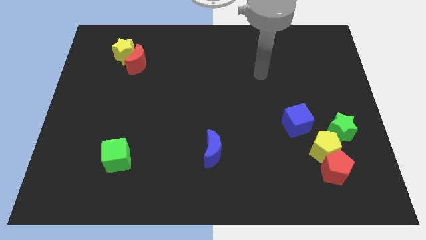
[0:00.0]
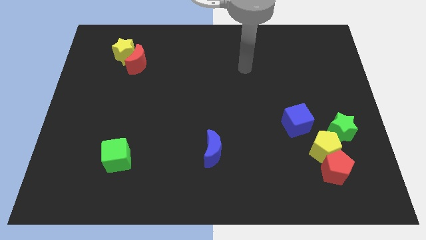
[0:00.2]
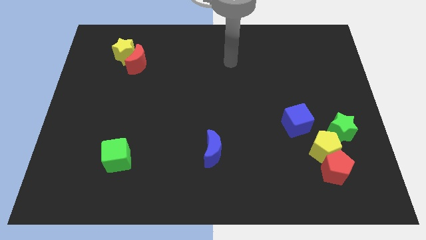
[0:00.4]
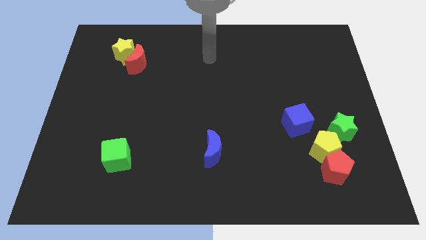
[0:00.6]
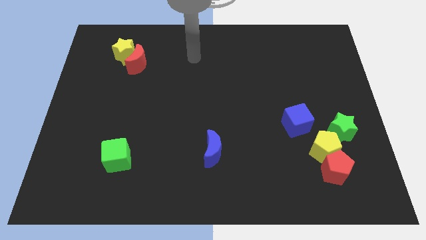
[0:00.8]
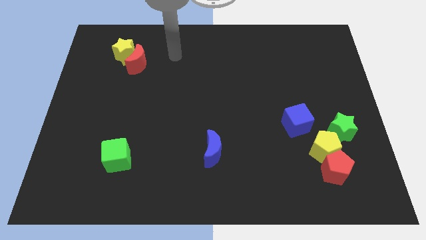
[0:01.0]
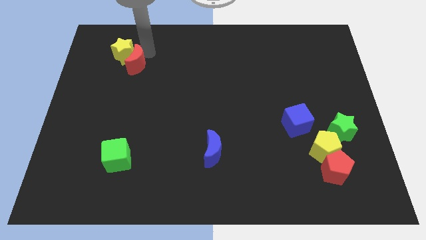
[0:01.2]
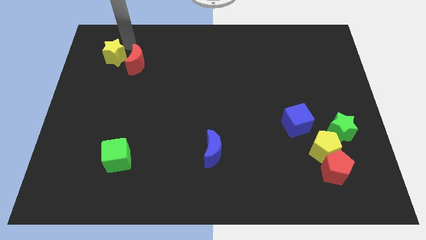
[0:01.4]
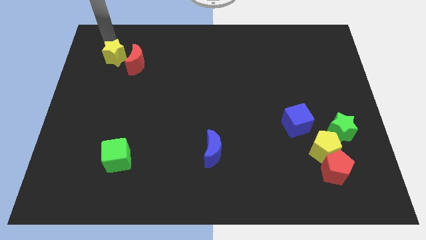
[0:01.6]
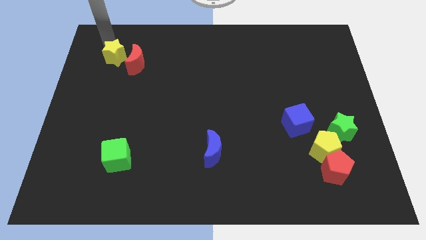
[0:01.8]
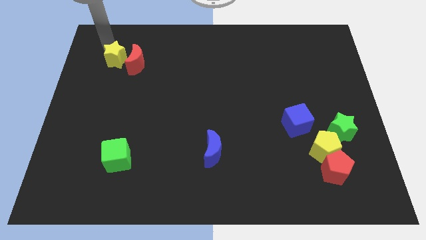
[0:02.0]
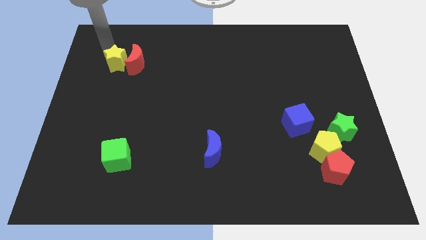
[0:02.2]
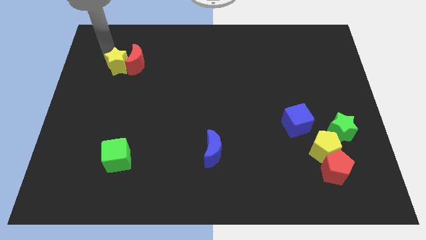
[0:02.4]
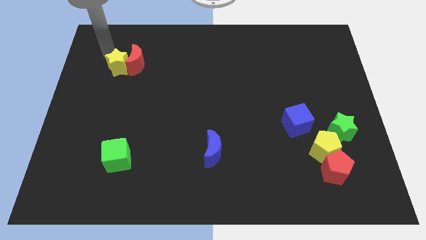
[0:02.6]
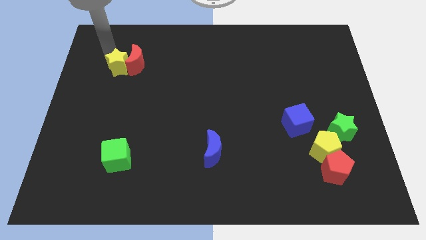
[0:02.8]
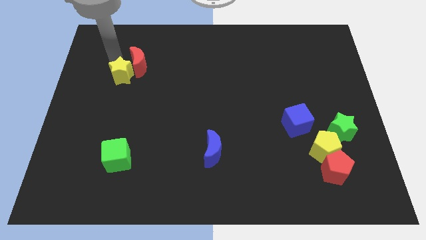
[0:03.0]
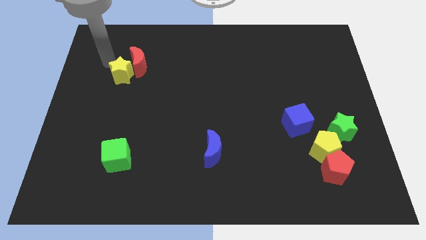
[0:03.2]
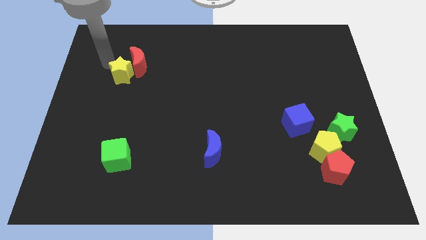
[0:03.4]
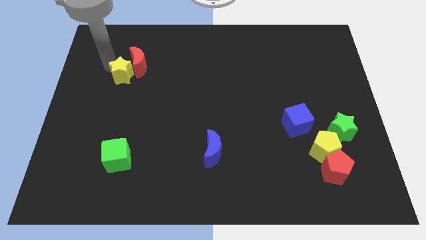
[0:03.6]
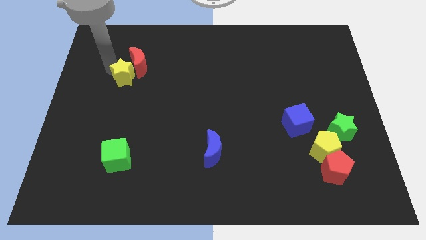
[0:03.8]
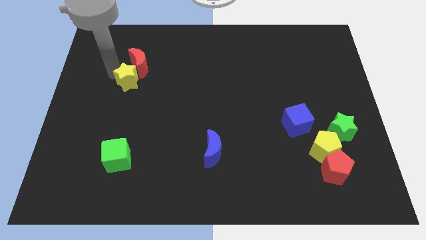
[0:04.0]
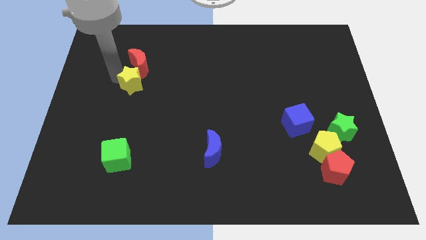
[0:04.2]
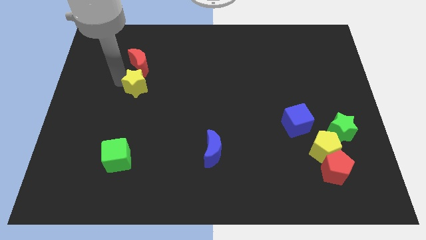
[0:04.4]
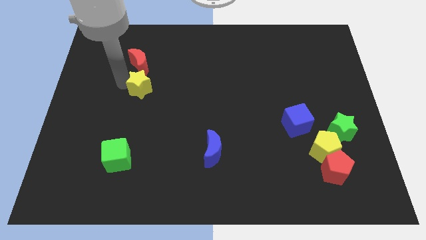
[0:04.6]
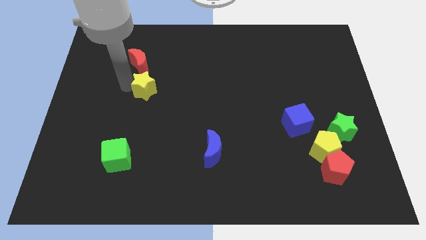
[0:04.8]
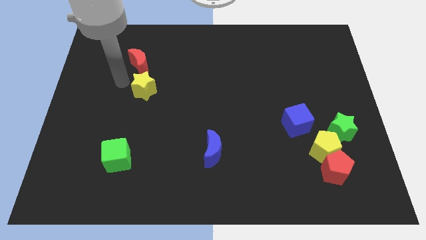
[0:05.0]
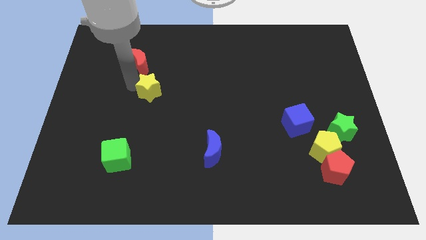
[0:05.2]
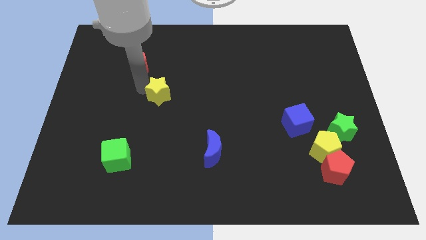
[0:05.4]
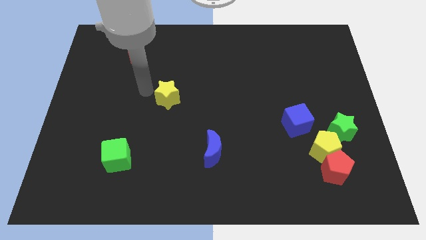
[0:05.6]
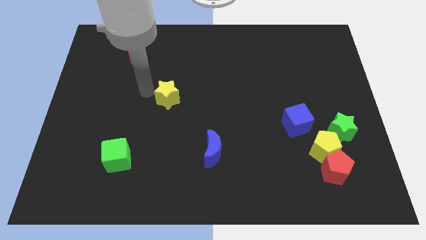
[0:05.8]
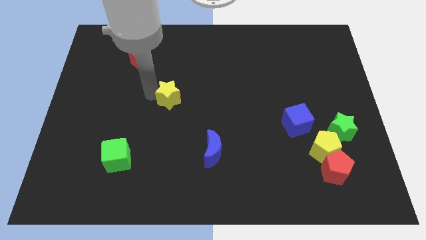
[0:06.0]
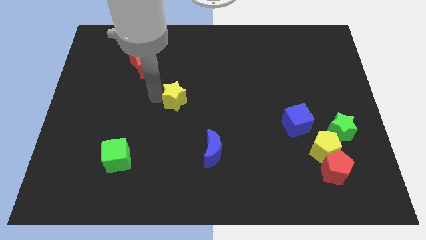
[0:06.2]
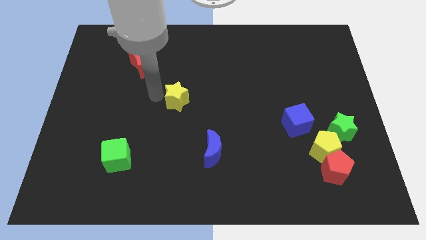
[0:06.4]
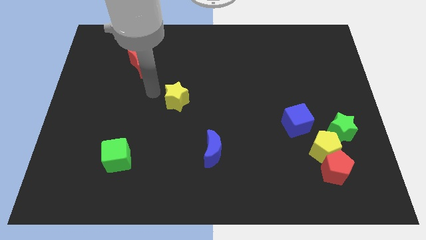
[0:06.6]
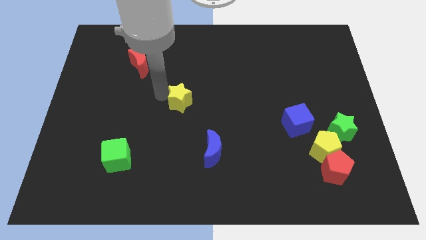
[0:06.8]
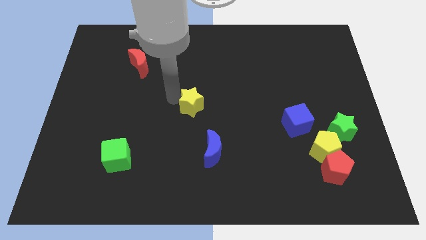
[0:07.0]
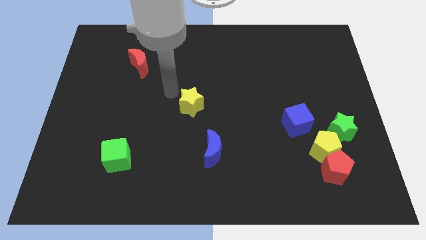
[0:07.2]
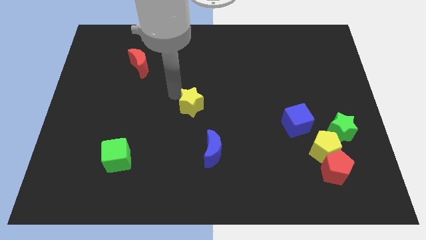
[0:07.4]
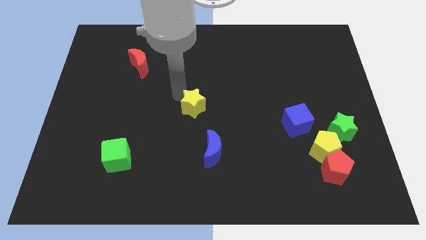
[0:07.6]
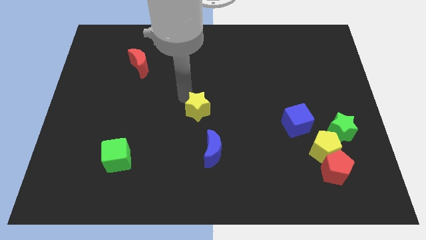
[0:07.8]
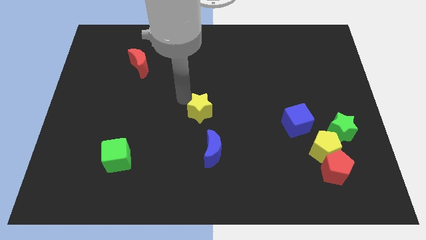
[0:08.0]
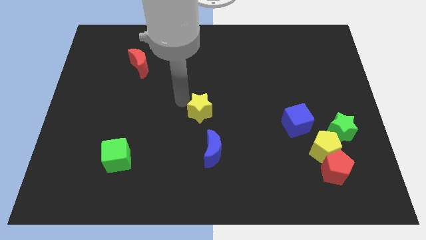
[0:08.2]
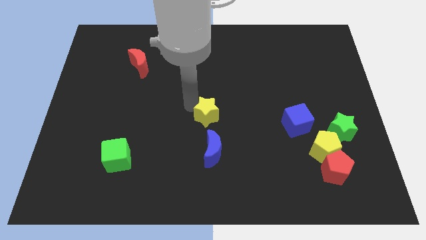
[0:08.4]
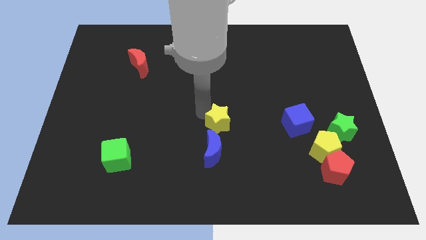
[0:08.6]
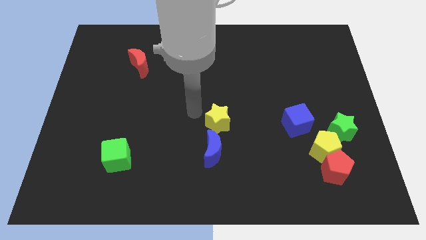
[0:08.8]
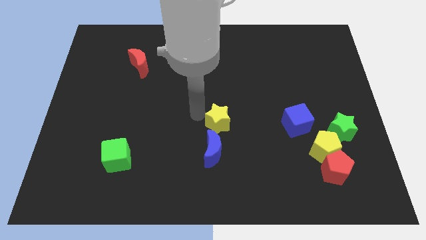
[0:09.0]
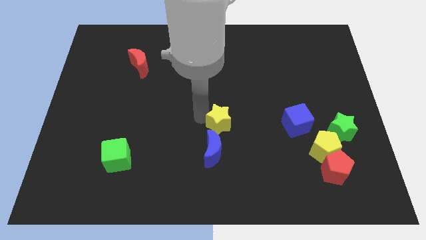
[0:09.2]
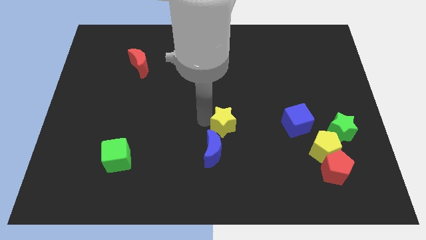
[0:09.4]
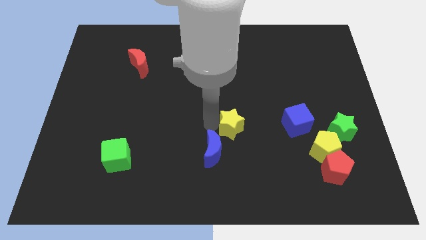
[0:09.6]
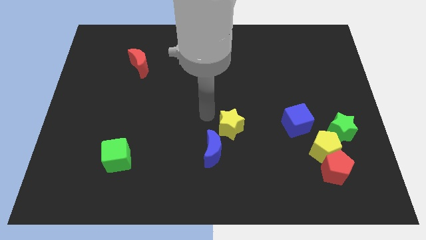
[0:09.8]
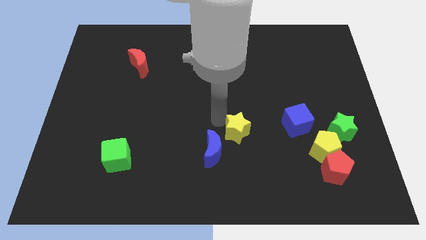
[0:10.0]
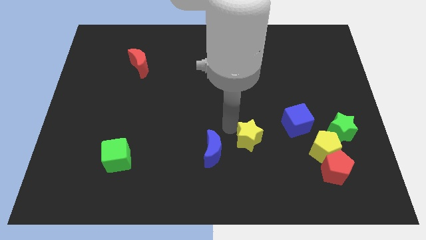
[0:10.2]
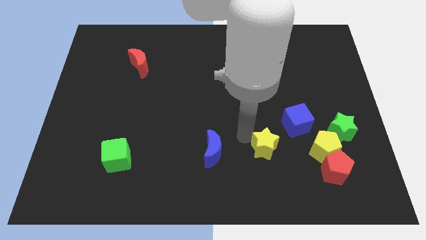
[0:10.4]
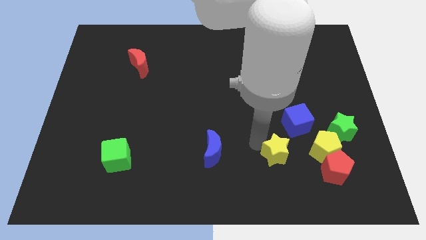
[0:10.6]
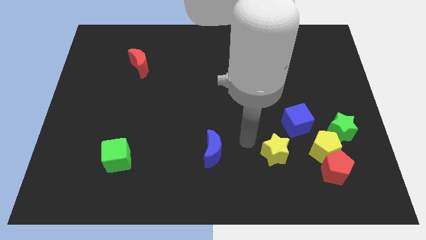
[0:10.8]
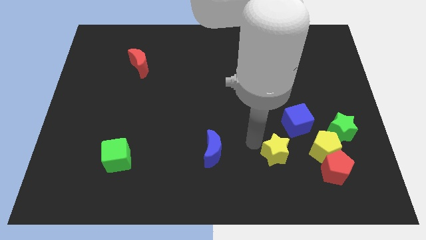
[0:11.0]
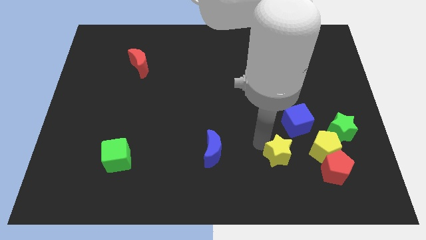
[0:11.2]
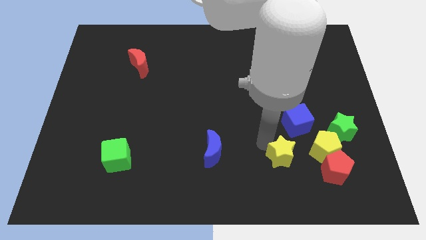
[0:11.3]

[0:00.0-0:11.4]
slide the yellow star below the blue cube

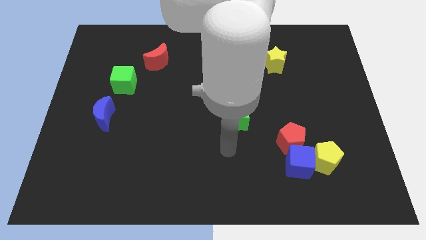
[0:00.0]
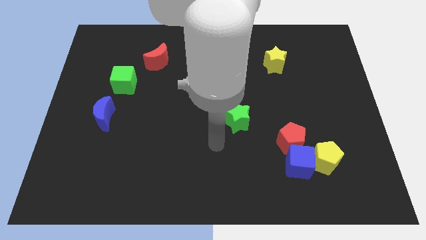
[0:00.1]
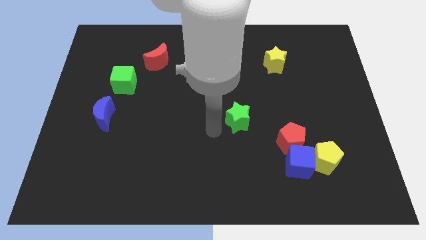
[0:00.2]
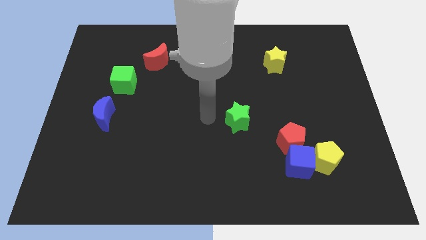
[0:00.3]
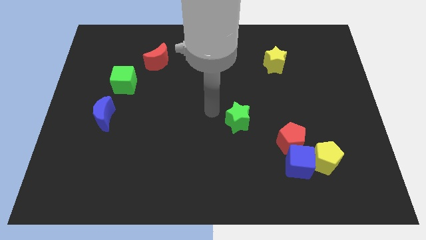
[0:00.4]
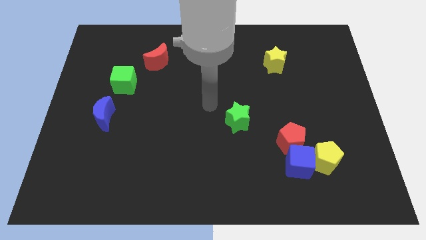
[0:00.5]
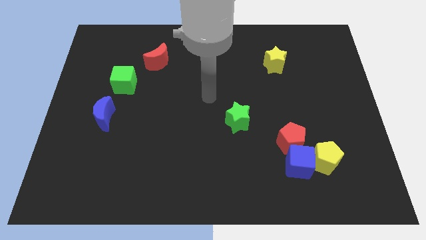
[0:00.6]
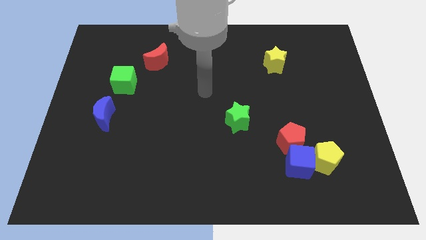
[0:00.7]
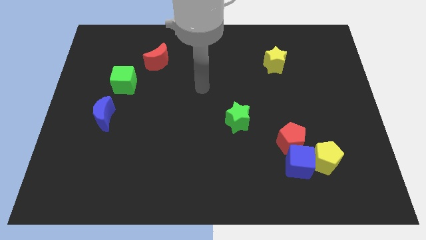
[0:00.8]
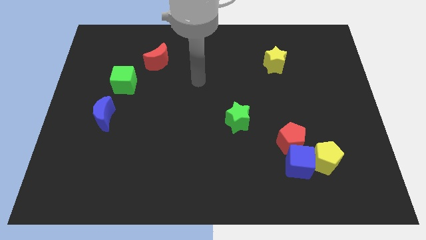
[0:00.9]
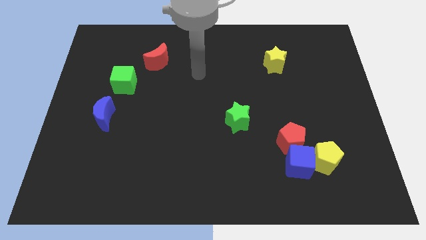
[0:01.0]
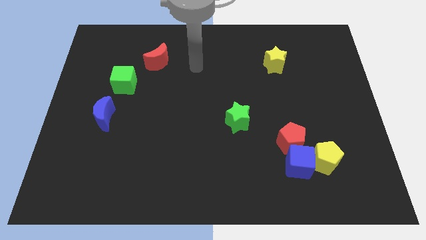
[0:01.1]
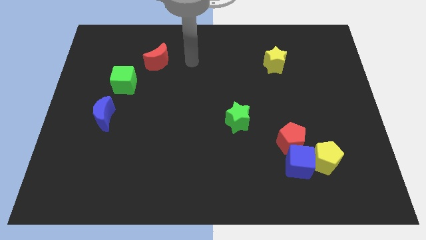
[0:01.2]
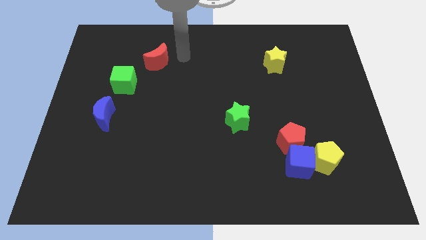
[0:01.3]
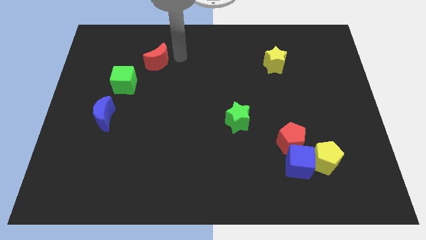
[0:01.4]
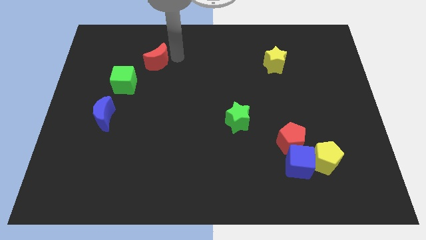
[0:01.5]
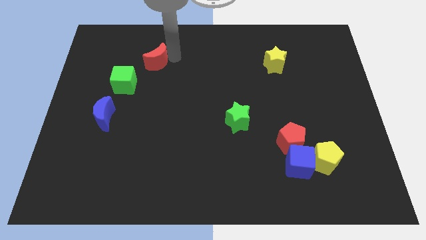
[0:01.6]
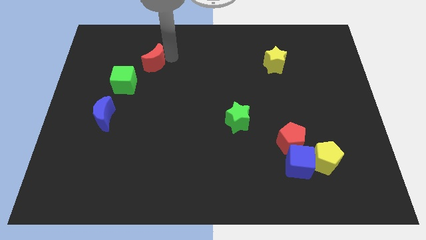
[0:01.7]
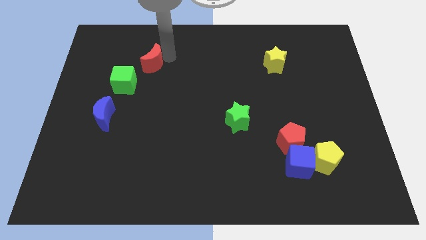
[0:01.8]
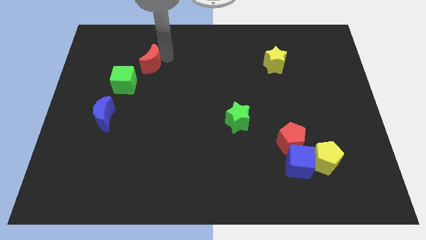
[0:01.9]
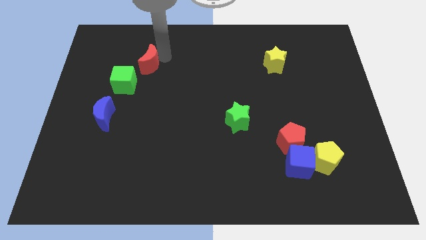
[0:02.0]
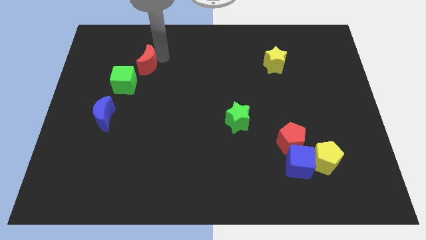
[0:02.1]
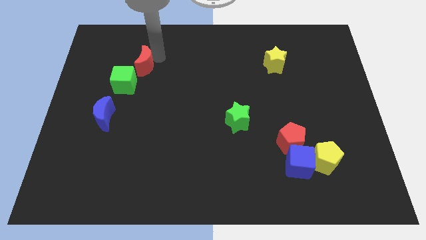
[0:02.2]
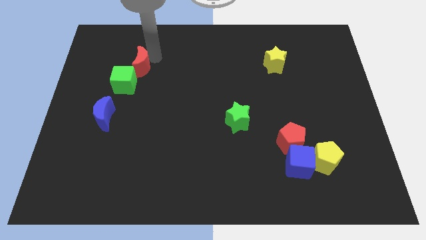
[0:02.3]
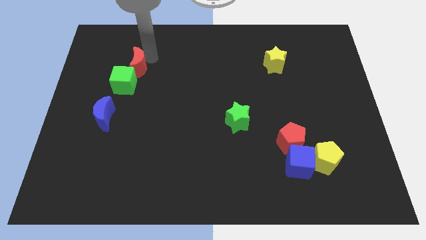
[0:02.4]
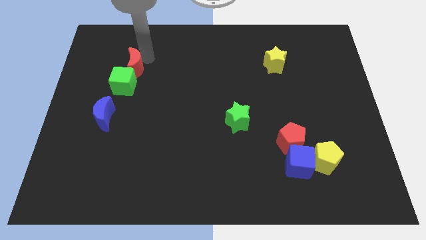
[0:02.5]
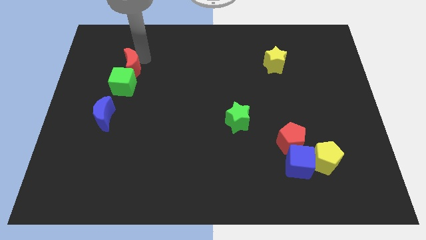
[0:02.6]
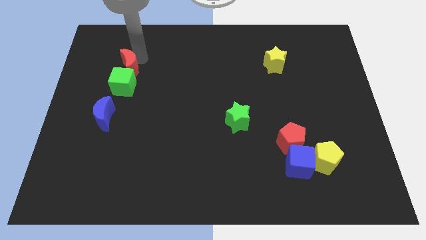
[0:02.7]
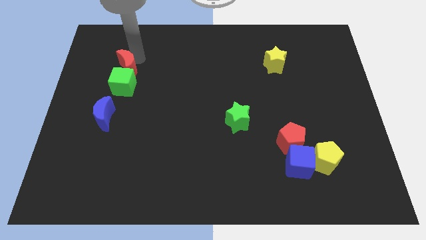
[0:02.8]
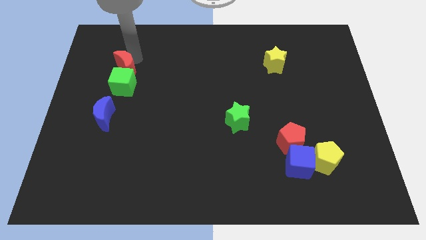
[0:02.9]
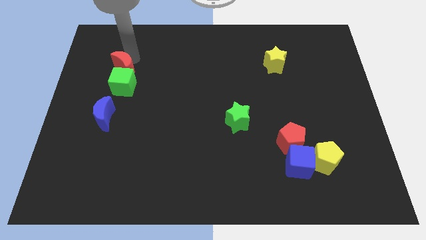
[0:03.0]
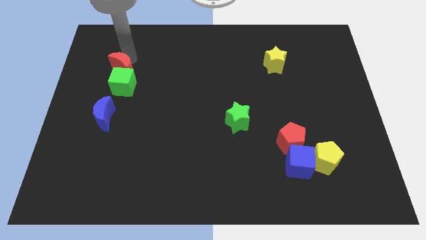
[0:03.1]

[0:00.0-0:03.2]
move the red moon above the blue moon
